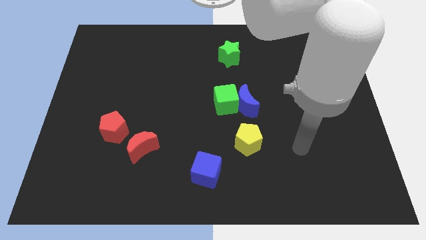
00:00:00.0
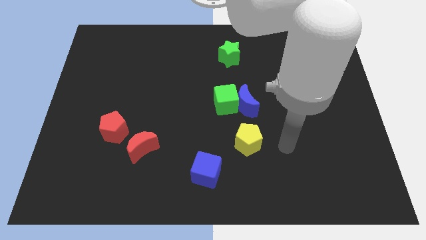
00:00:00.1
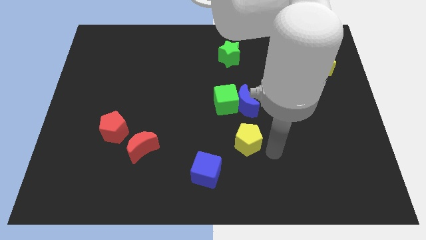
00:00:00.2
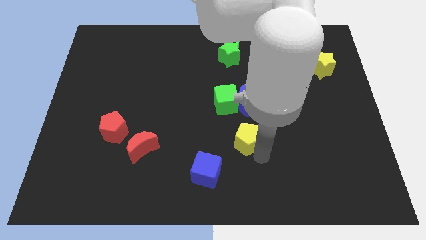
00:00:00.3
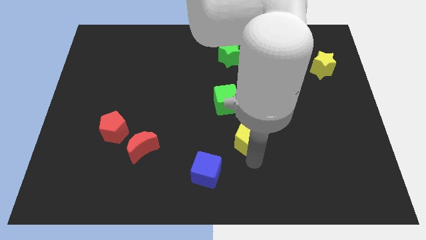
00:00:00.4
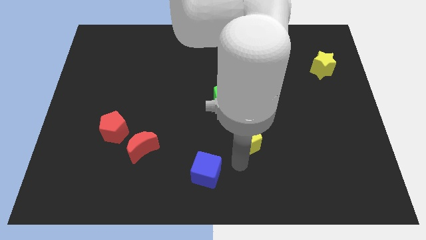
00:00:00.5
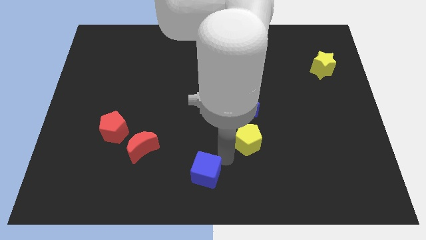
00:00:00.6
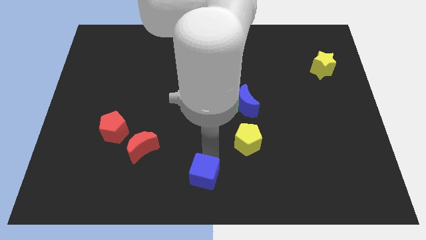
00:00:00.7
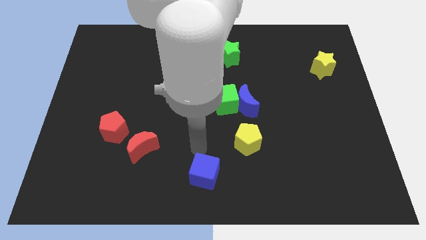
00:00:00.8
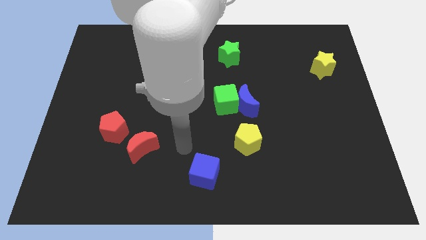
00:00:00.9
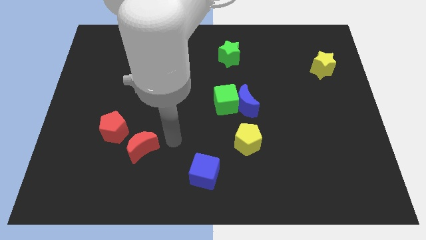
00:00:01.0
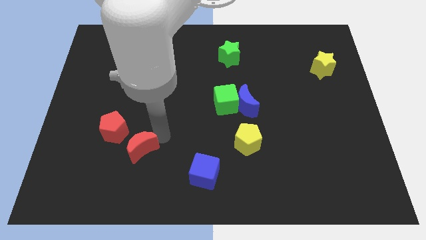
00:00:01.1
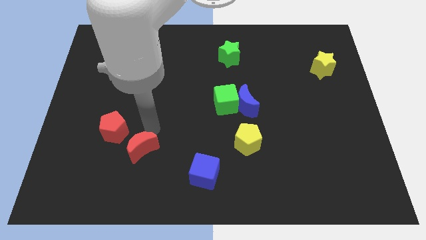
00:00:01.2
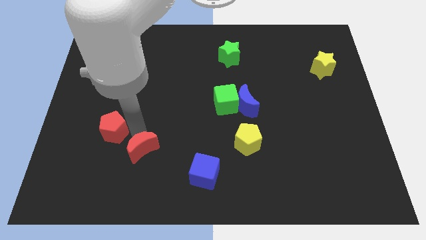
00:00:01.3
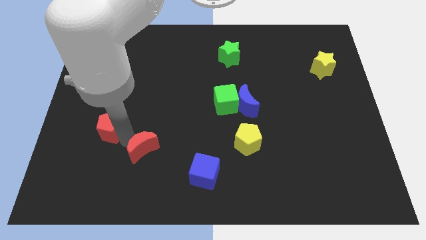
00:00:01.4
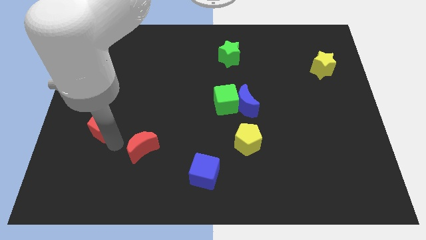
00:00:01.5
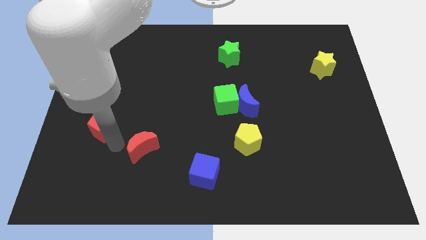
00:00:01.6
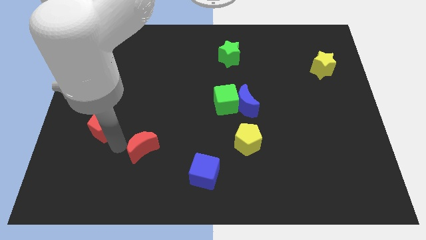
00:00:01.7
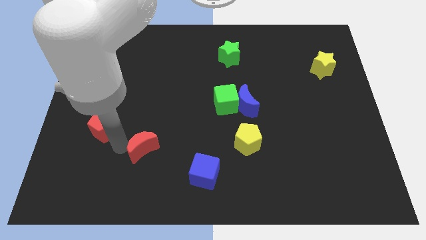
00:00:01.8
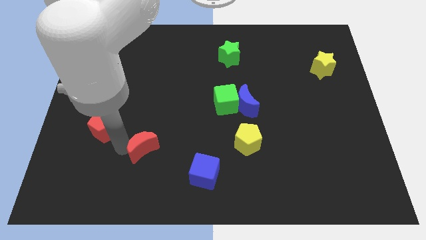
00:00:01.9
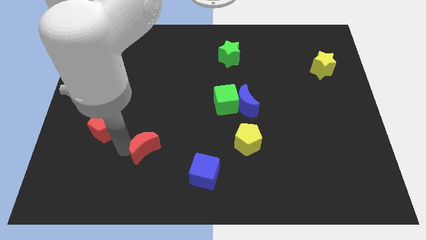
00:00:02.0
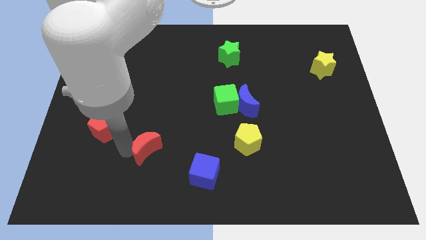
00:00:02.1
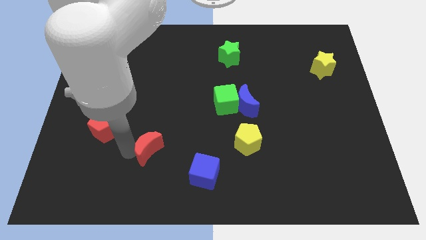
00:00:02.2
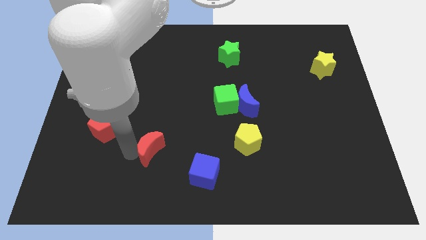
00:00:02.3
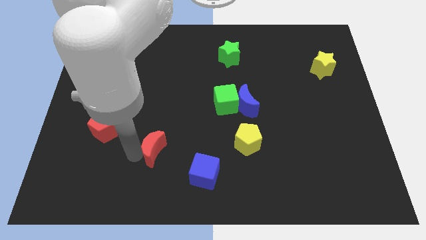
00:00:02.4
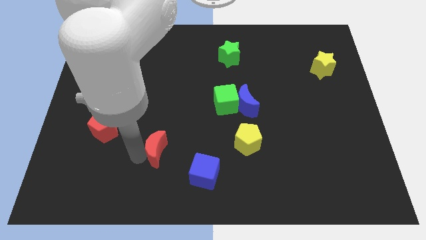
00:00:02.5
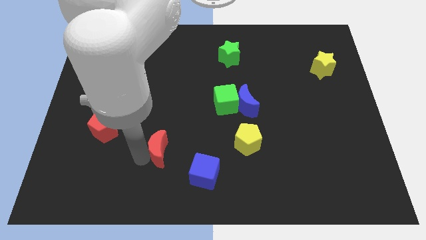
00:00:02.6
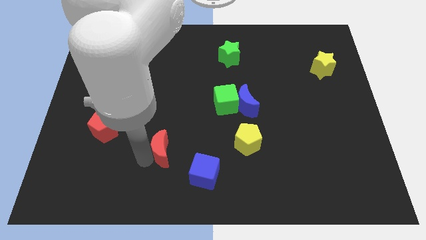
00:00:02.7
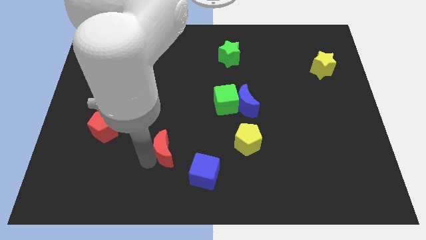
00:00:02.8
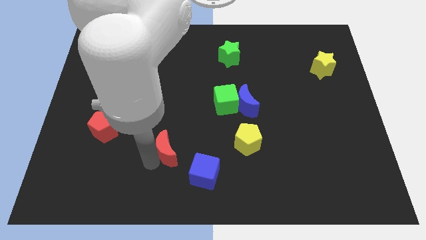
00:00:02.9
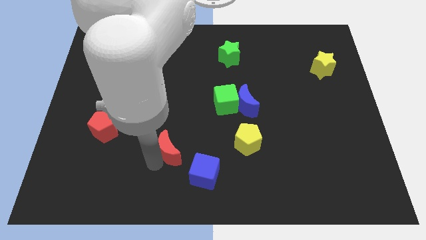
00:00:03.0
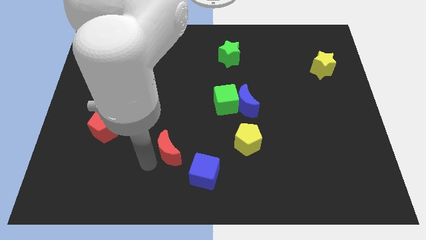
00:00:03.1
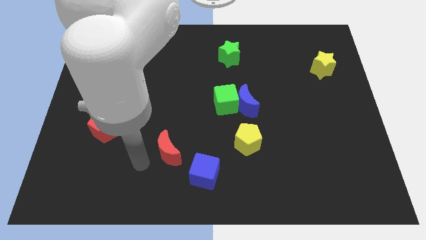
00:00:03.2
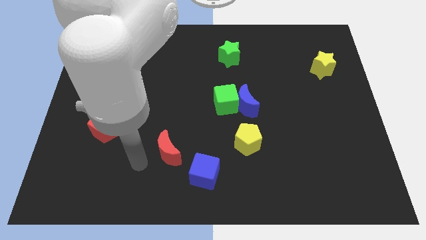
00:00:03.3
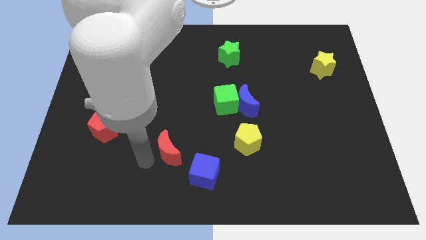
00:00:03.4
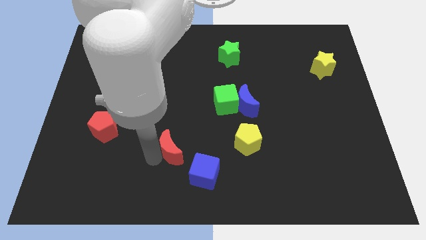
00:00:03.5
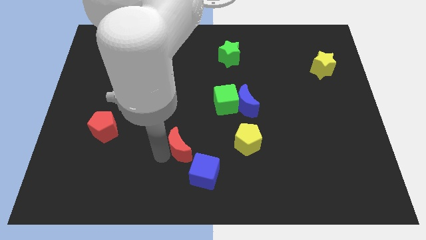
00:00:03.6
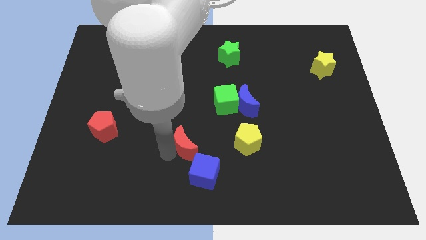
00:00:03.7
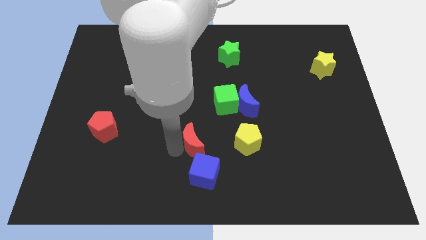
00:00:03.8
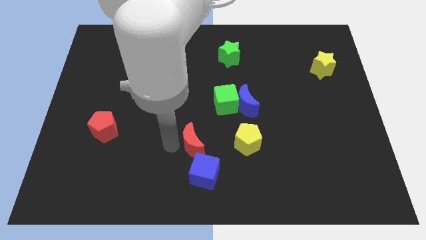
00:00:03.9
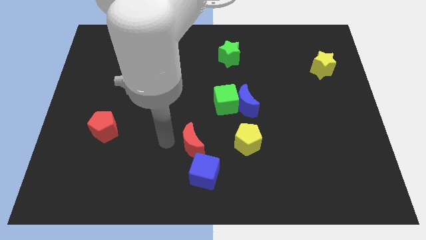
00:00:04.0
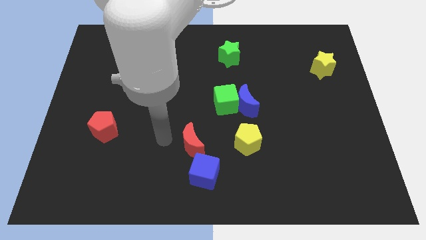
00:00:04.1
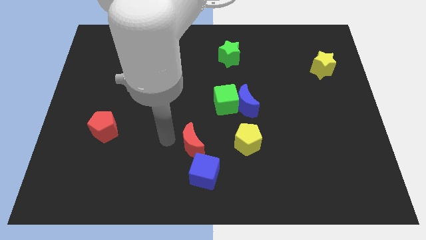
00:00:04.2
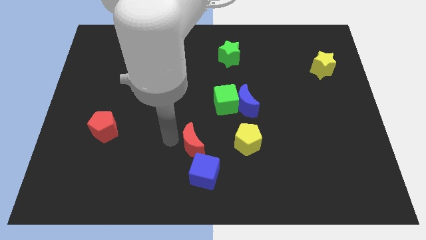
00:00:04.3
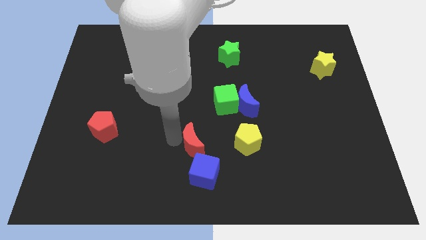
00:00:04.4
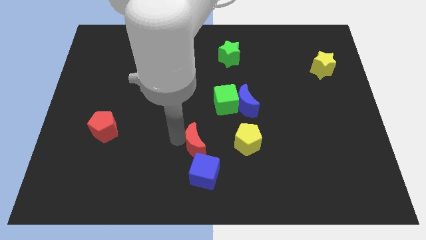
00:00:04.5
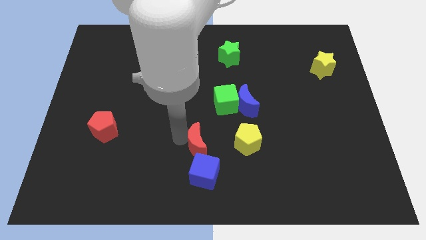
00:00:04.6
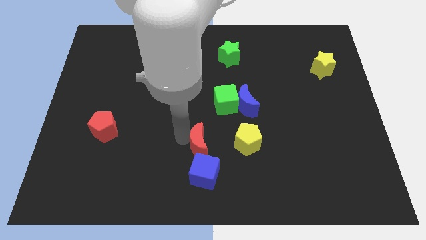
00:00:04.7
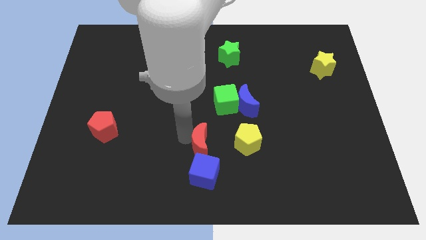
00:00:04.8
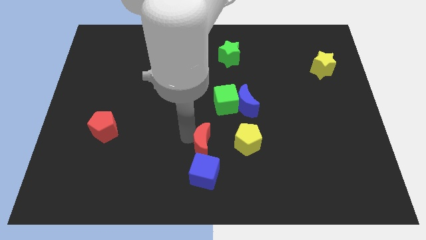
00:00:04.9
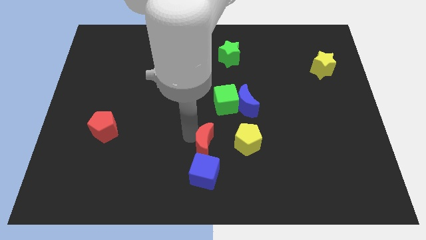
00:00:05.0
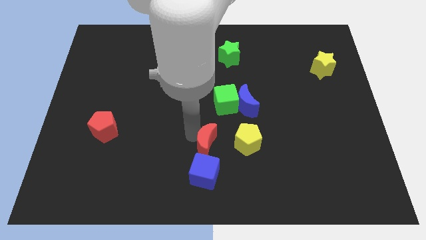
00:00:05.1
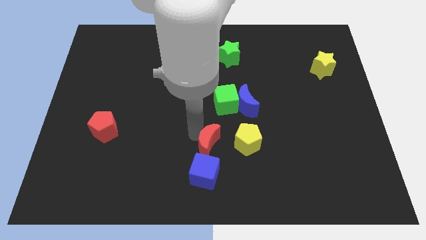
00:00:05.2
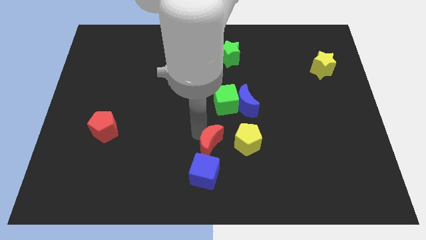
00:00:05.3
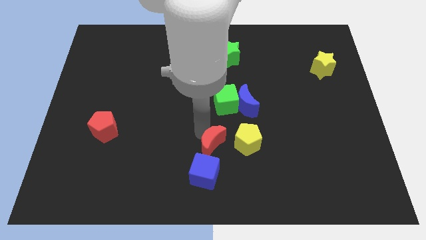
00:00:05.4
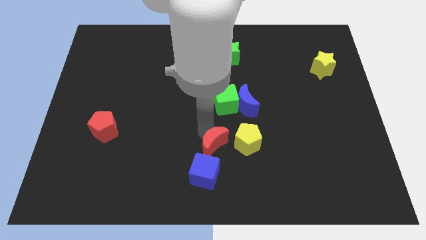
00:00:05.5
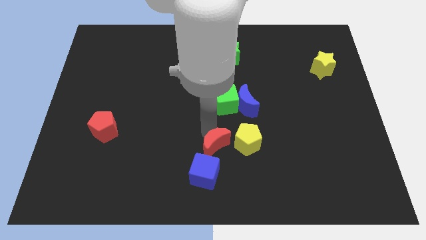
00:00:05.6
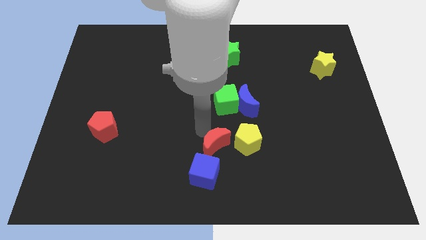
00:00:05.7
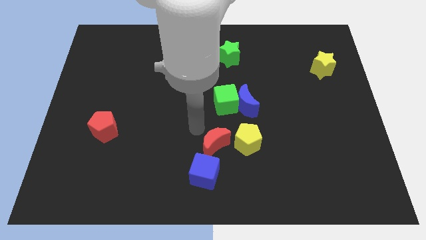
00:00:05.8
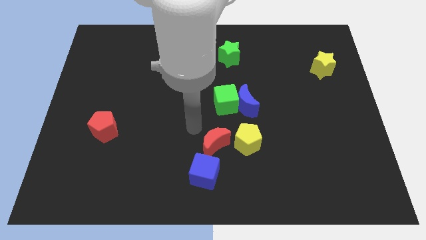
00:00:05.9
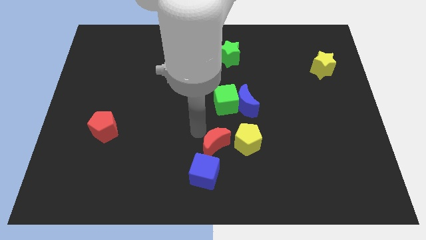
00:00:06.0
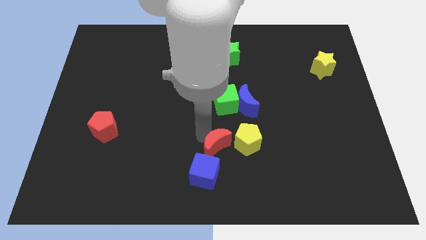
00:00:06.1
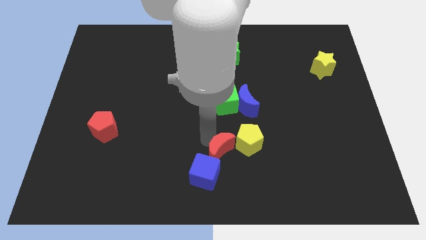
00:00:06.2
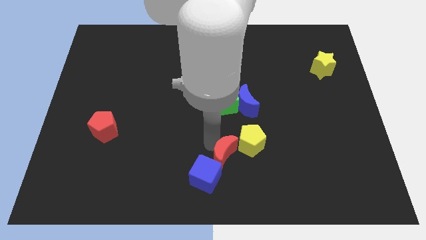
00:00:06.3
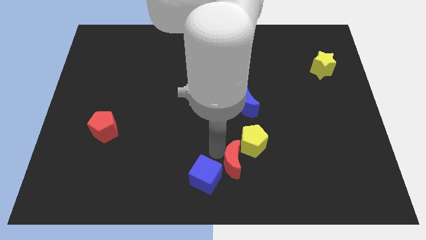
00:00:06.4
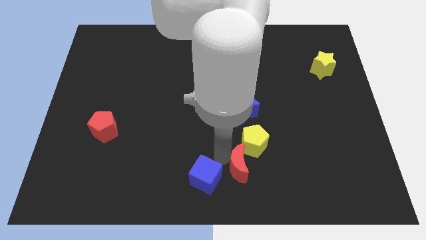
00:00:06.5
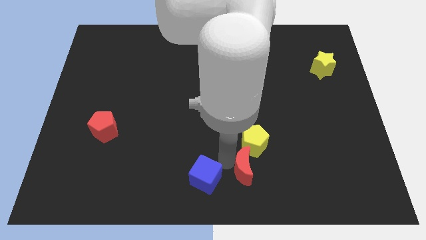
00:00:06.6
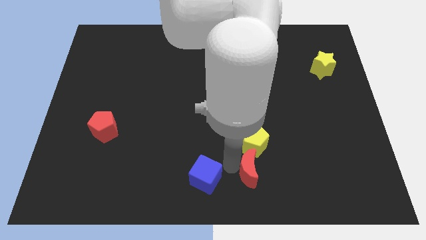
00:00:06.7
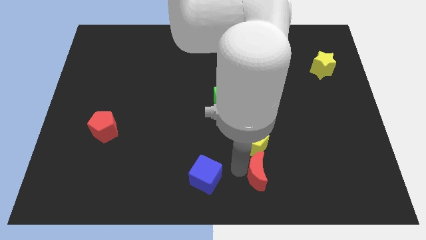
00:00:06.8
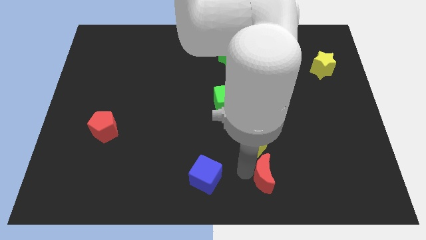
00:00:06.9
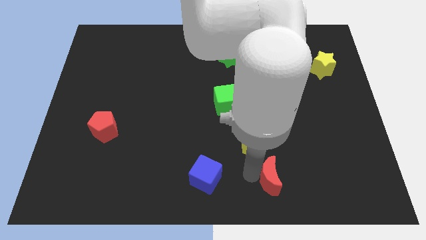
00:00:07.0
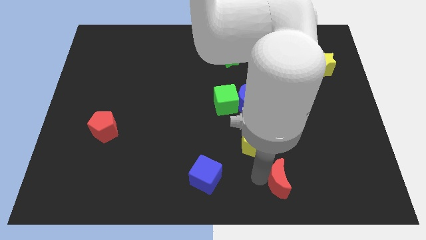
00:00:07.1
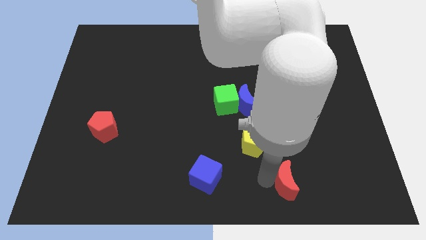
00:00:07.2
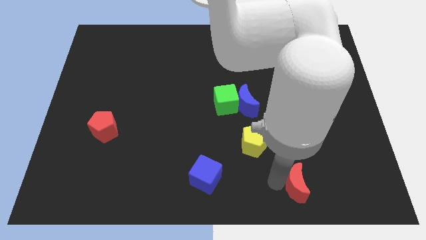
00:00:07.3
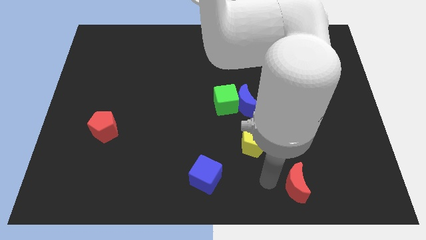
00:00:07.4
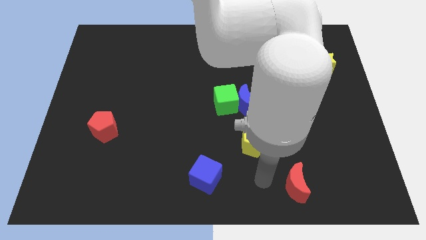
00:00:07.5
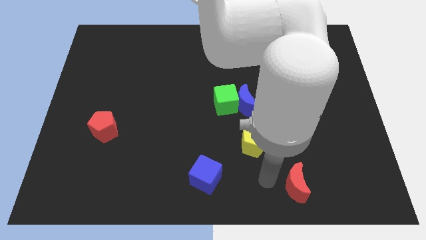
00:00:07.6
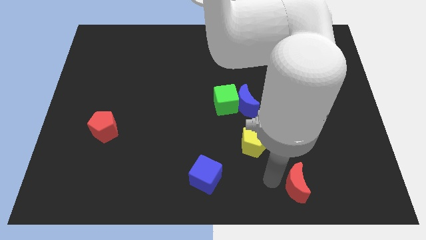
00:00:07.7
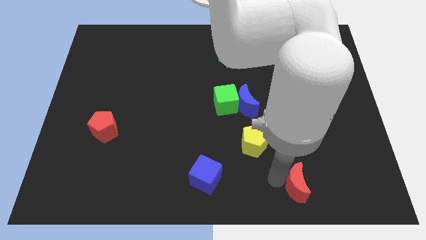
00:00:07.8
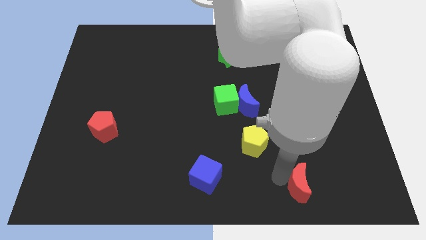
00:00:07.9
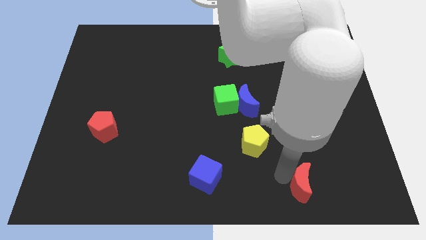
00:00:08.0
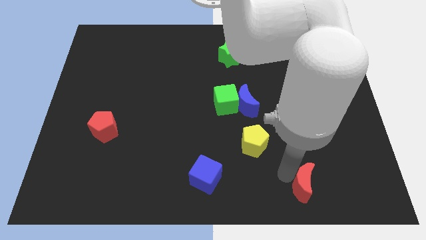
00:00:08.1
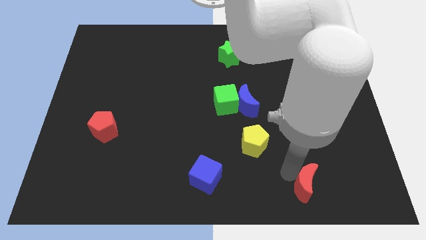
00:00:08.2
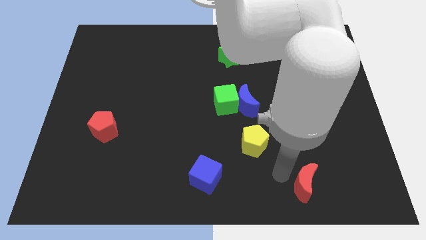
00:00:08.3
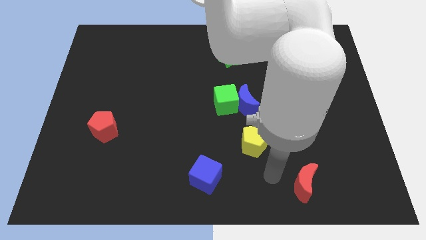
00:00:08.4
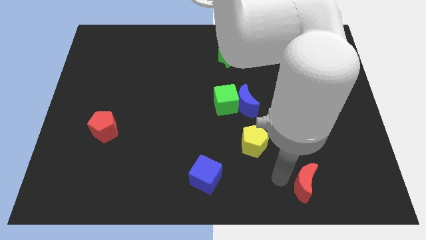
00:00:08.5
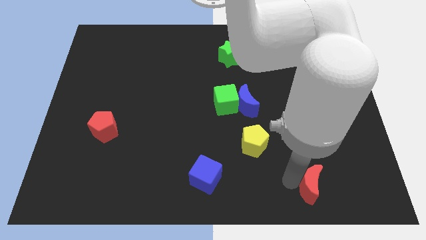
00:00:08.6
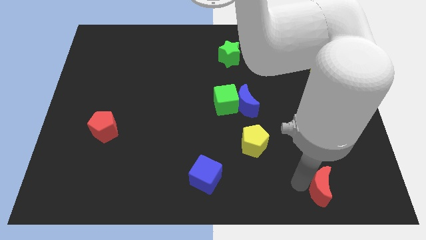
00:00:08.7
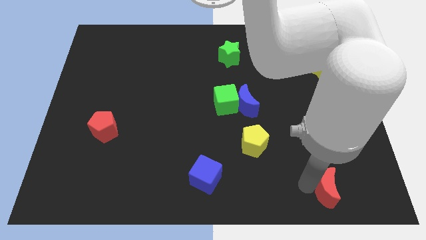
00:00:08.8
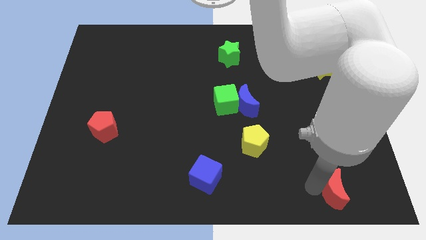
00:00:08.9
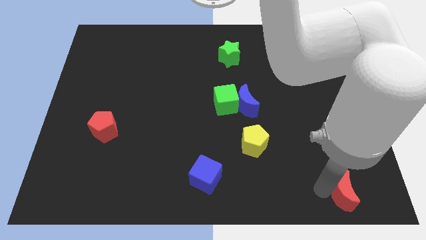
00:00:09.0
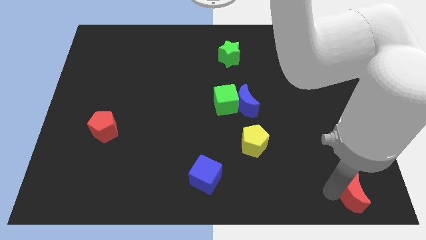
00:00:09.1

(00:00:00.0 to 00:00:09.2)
slide the red moon to the lower right corner
